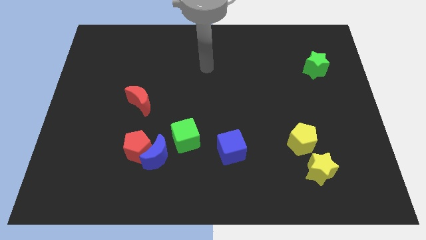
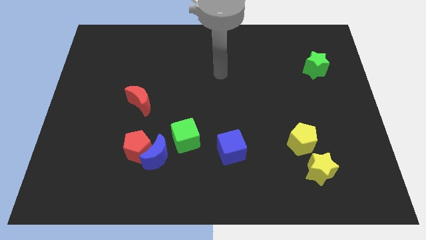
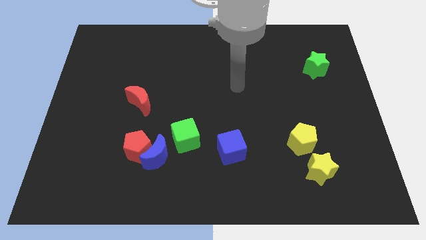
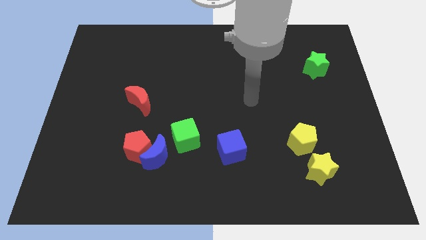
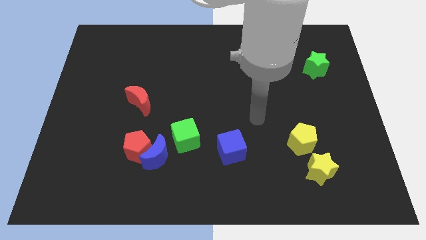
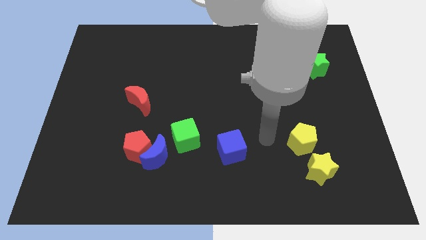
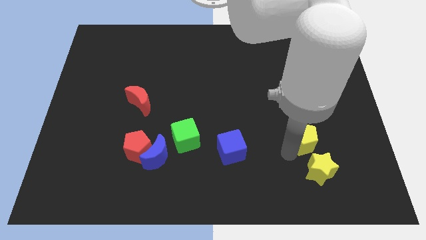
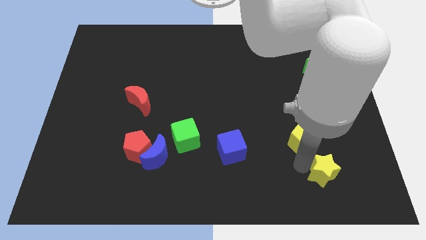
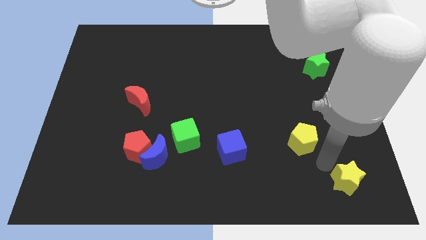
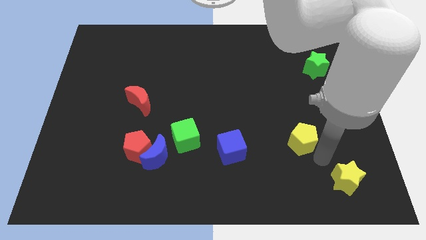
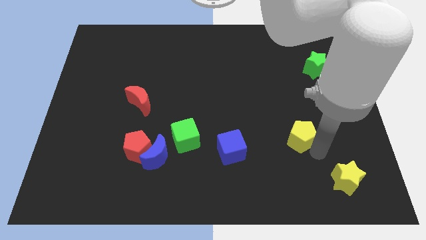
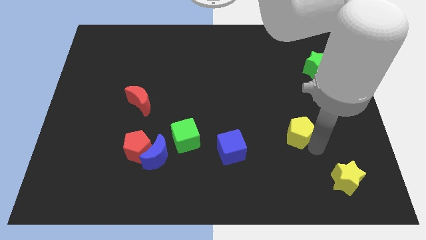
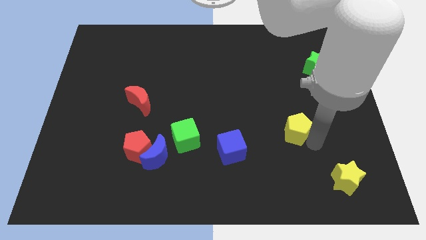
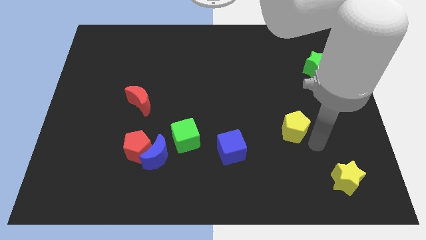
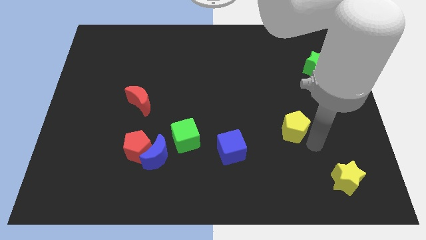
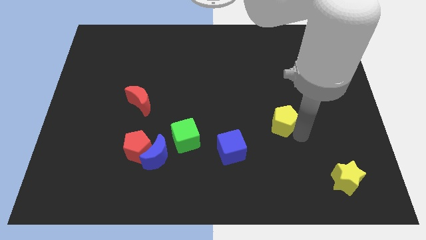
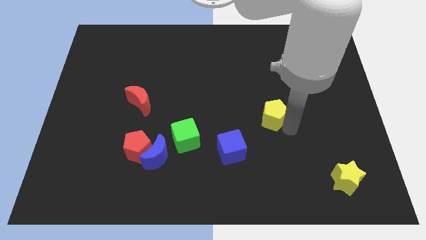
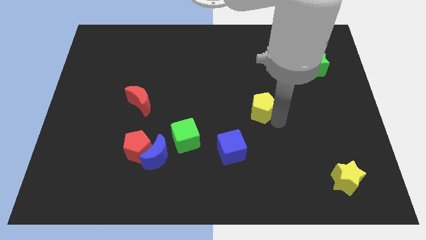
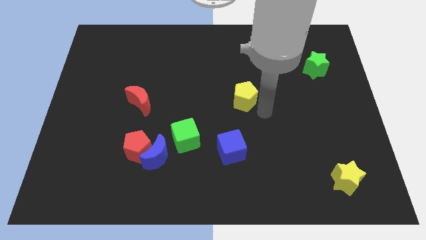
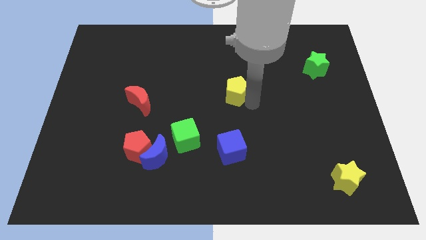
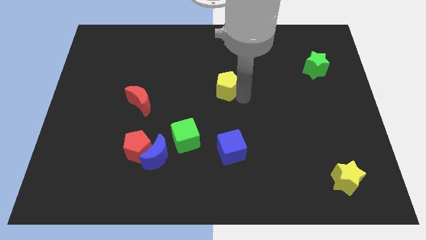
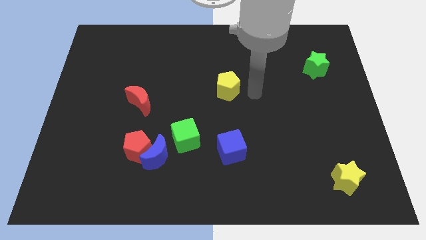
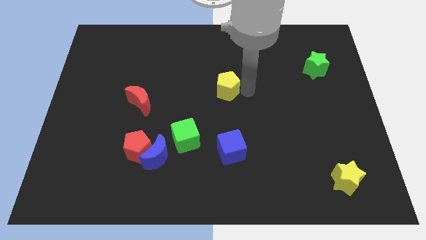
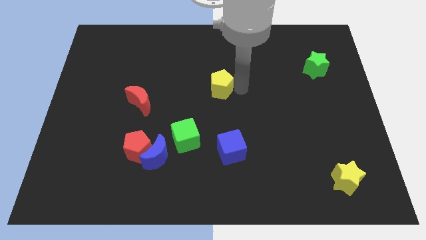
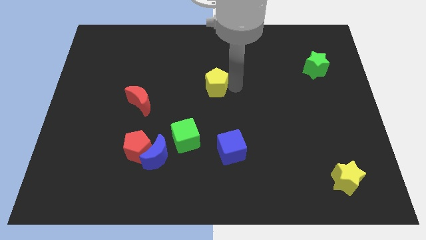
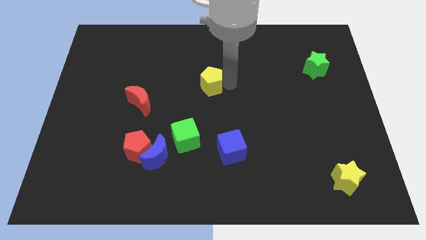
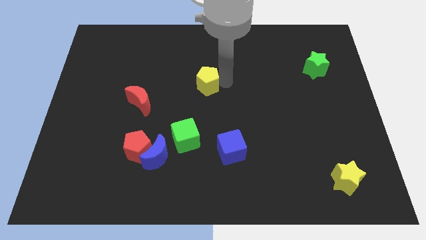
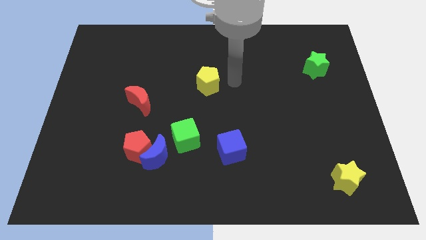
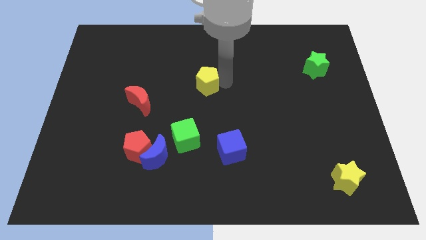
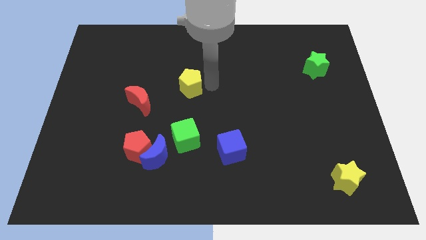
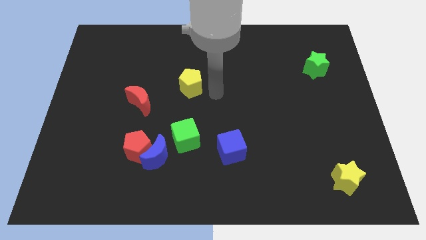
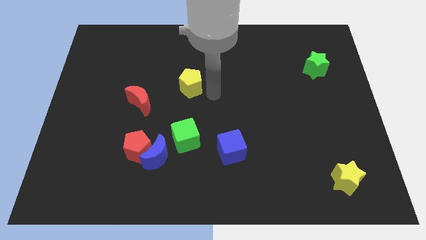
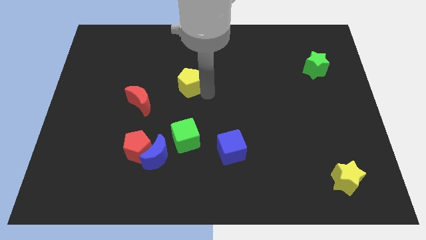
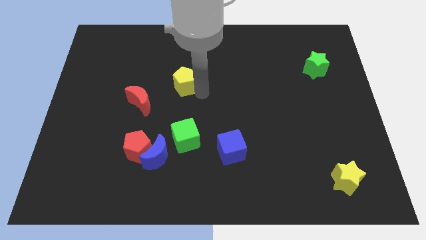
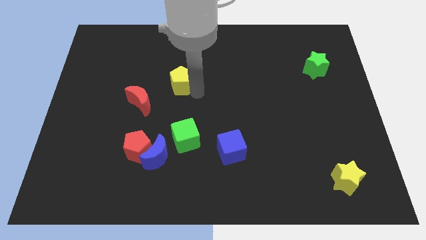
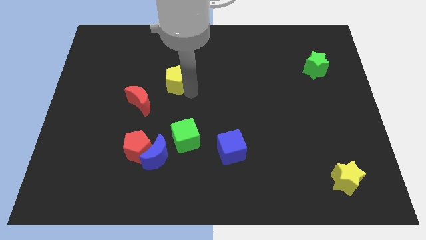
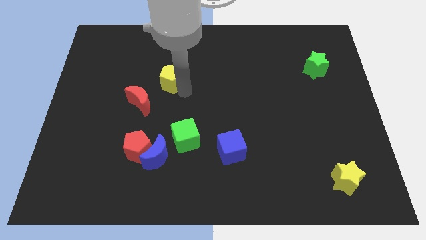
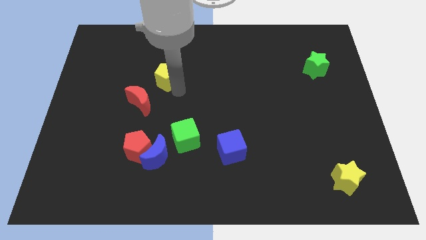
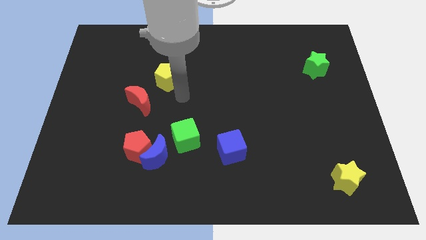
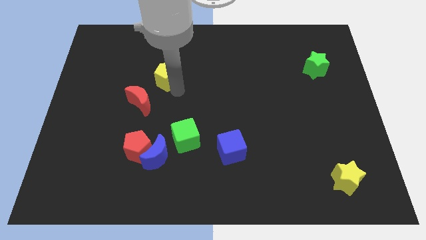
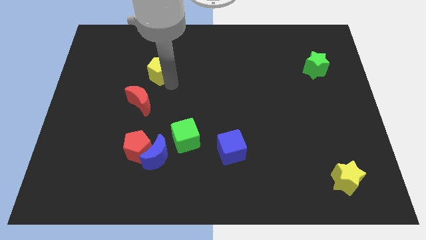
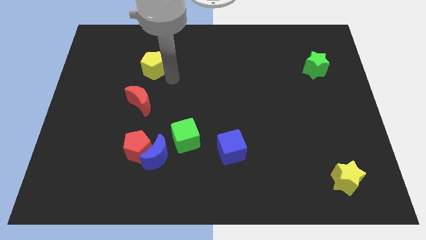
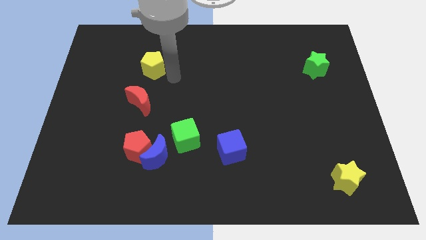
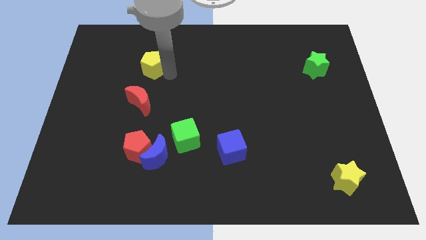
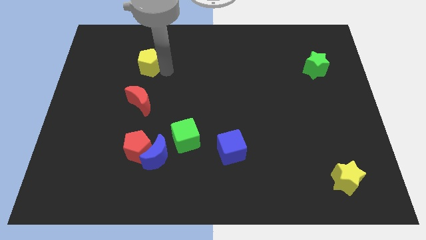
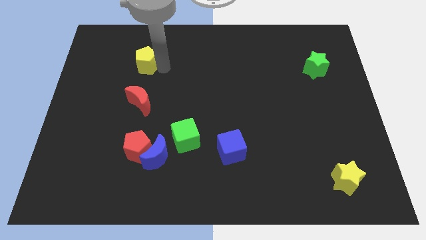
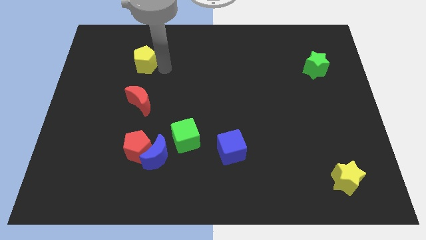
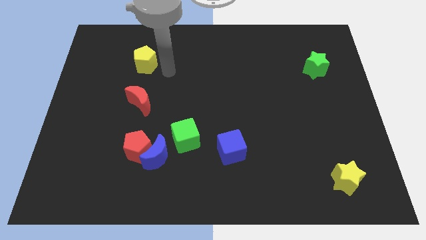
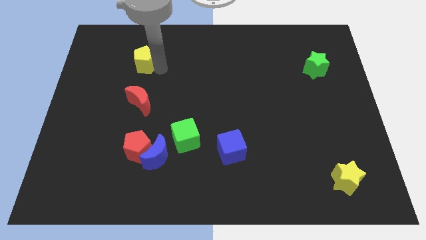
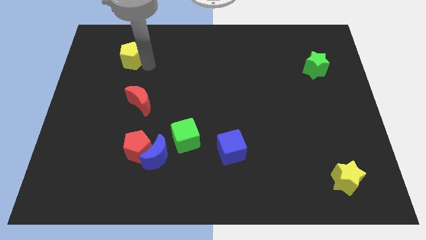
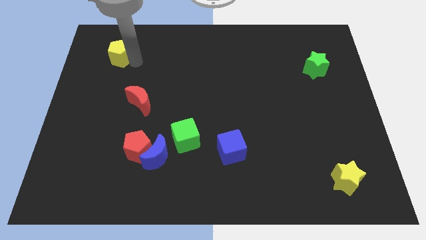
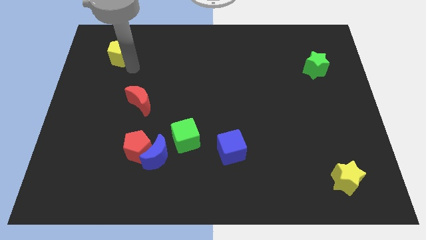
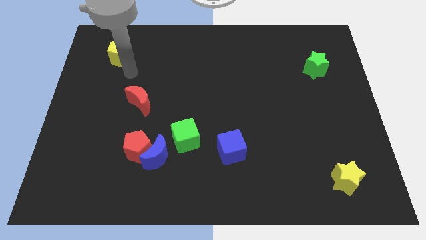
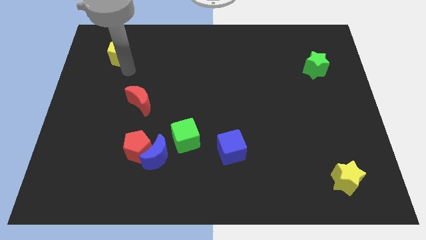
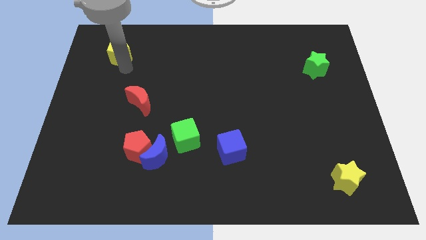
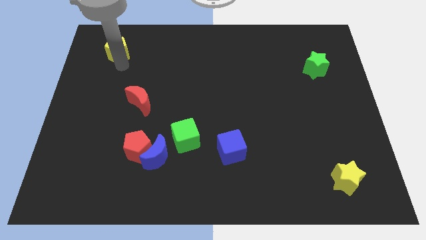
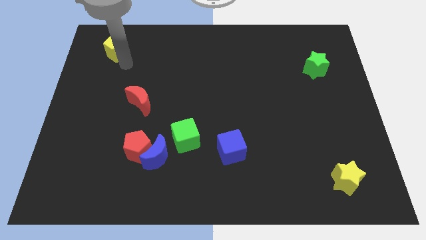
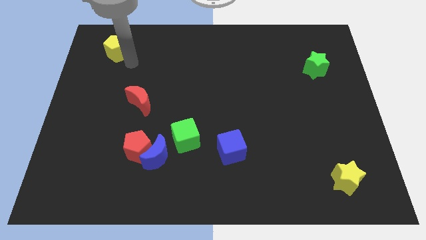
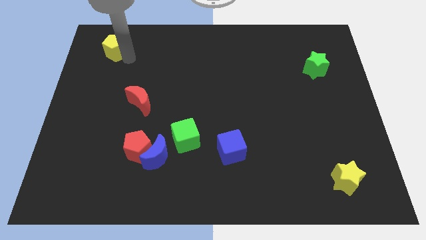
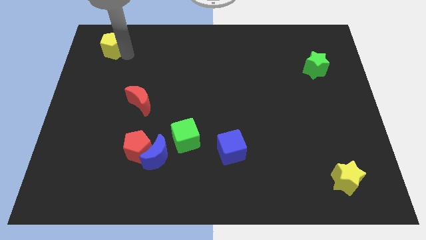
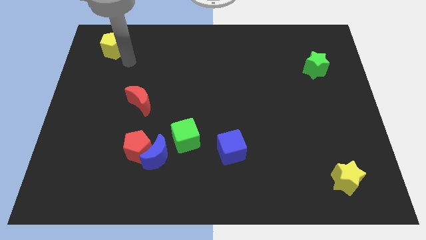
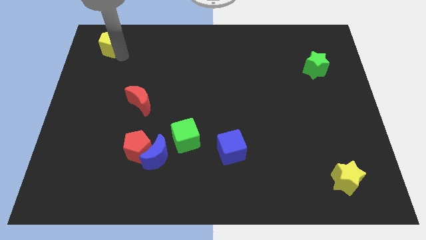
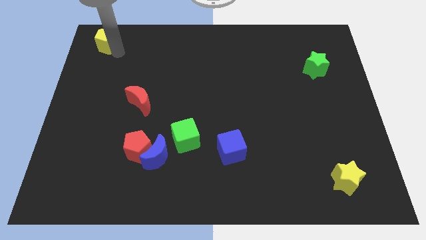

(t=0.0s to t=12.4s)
slide the yellow pentagon to the upper left corner

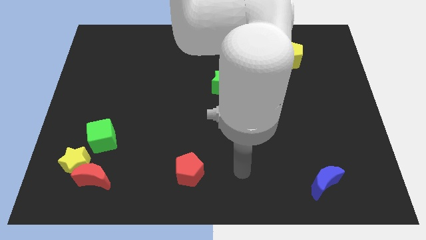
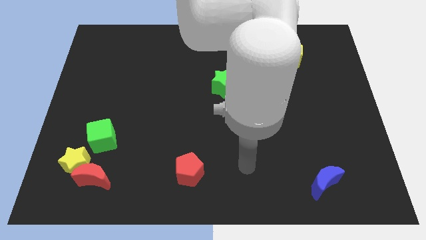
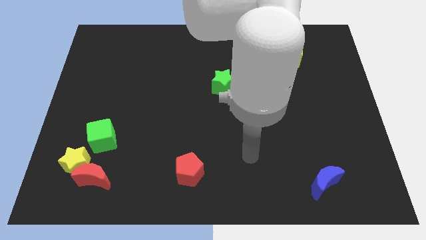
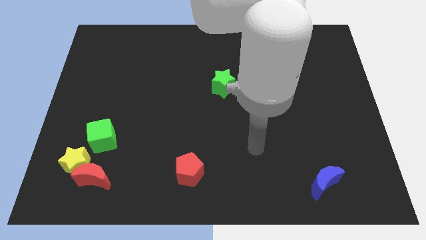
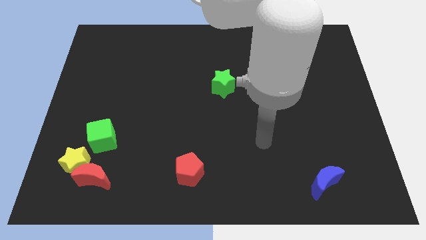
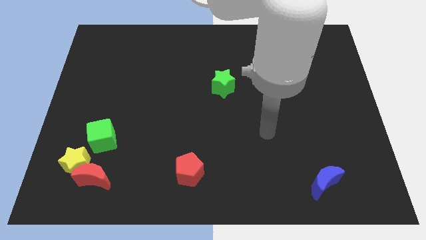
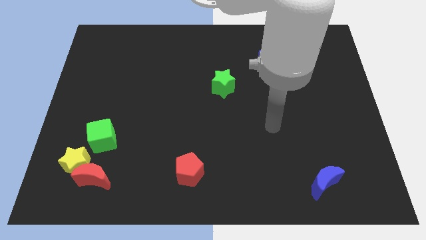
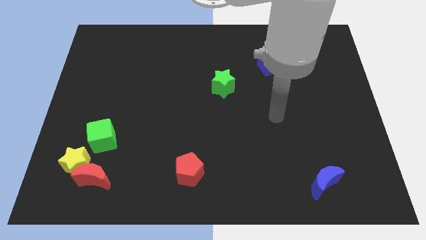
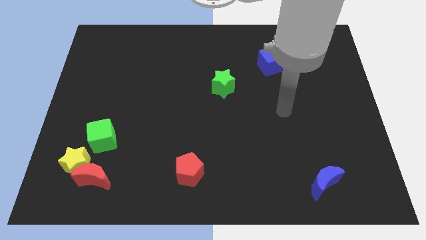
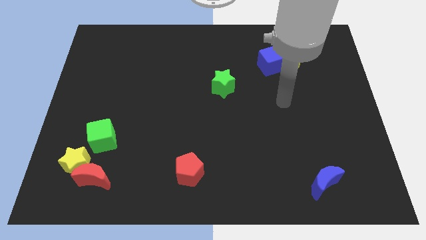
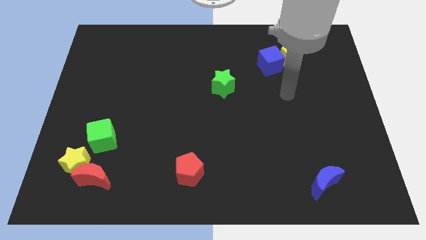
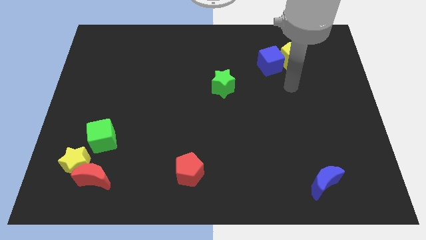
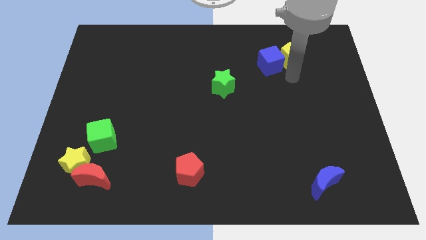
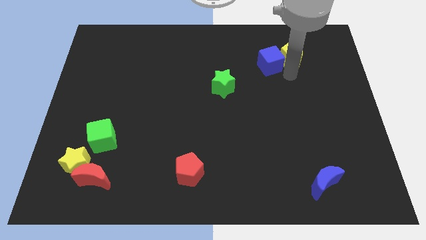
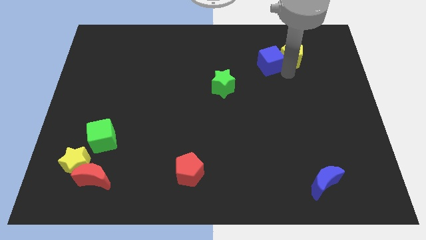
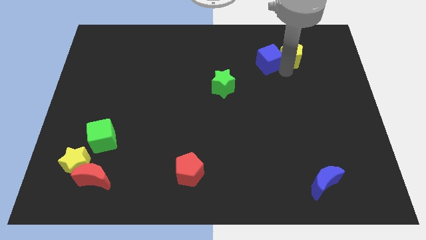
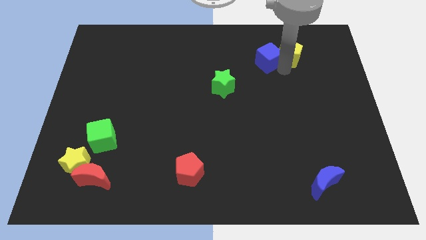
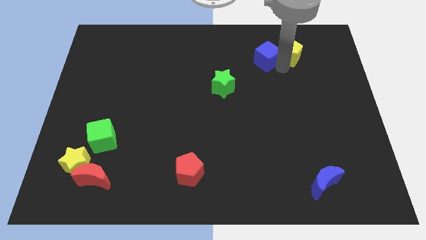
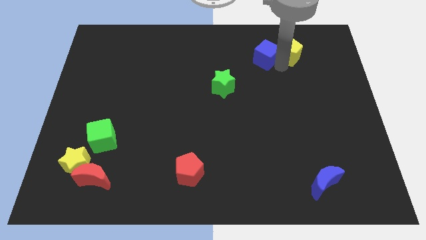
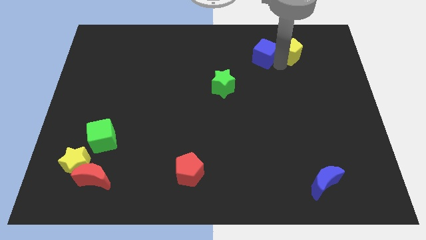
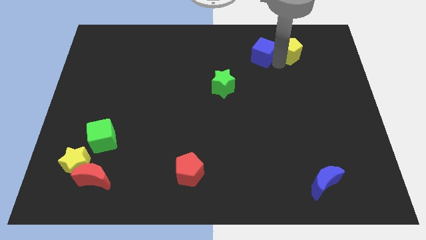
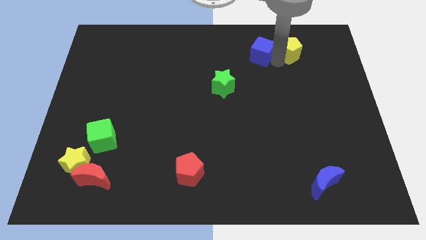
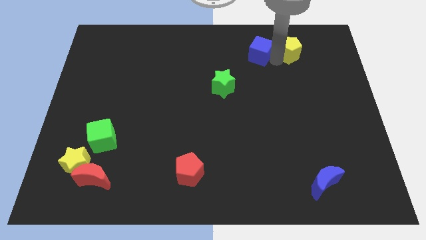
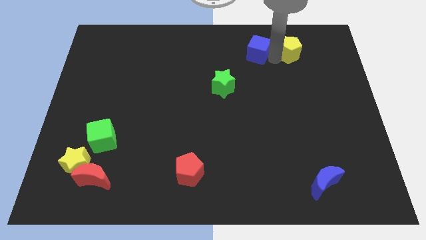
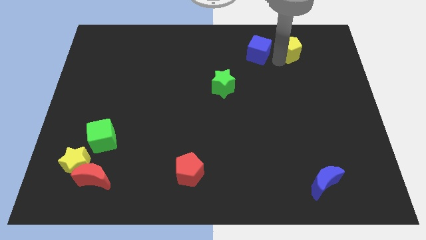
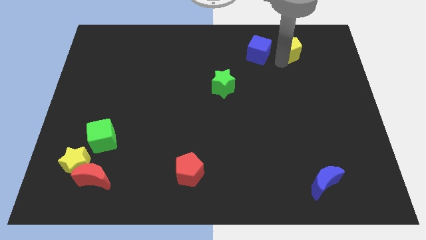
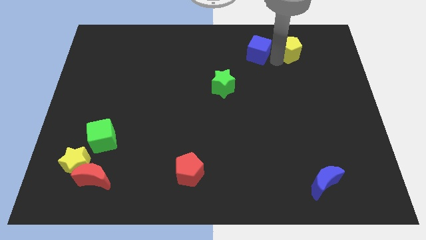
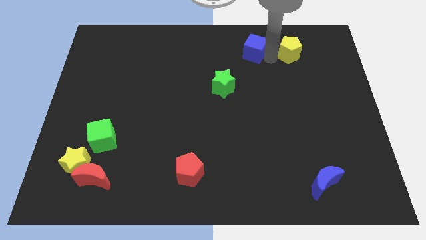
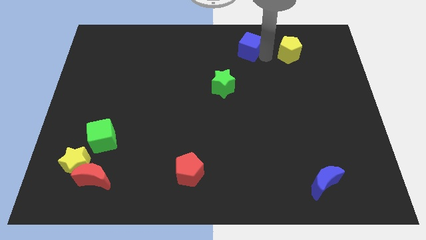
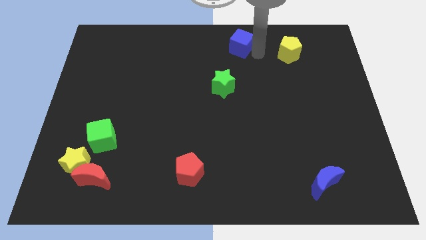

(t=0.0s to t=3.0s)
put the blue cube to the top side
